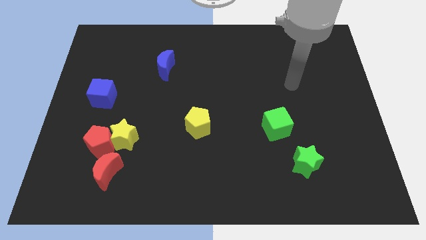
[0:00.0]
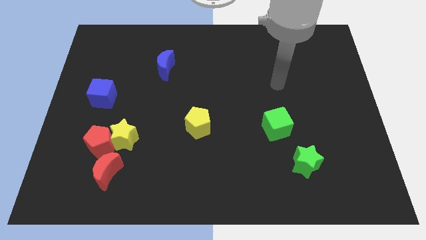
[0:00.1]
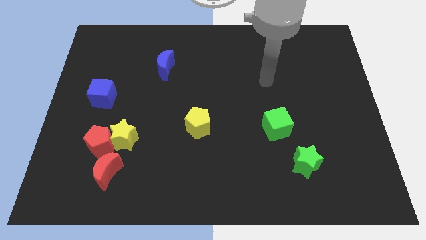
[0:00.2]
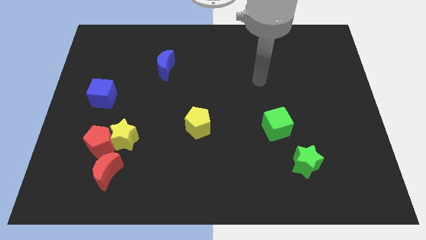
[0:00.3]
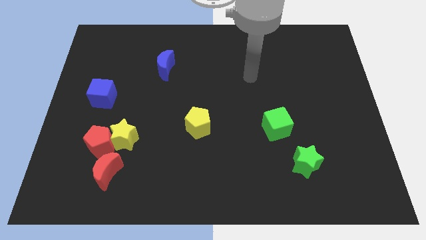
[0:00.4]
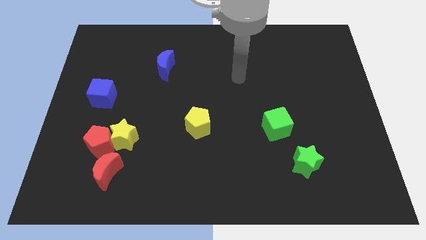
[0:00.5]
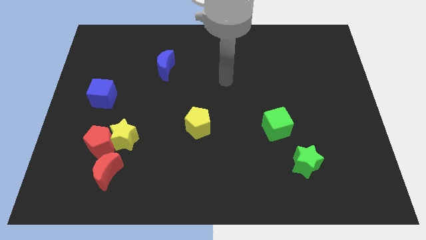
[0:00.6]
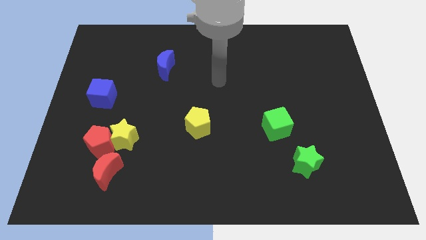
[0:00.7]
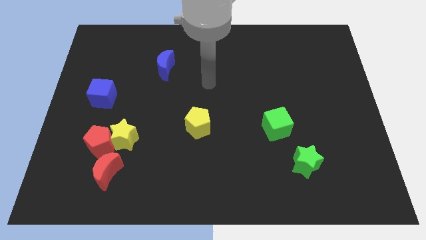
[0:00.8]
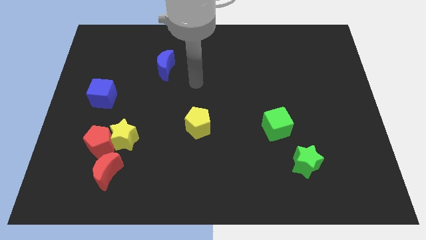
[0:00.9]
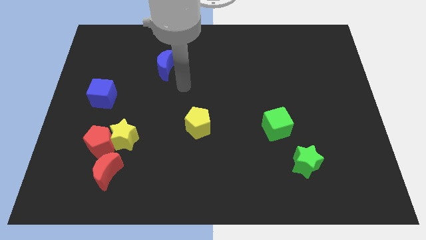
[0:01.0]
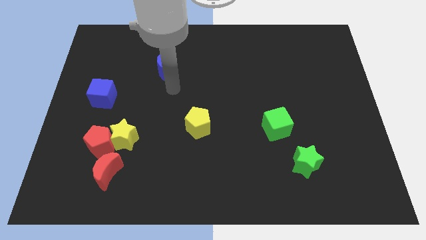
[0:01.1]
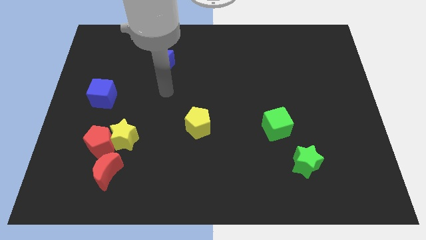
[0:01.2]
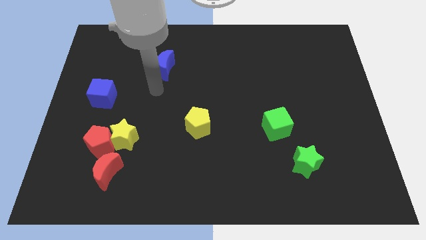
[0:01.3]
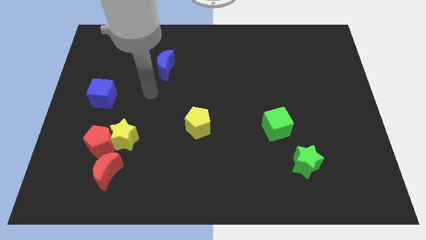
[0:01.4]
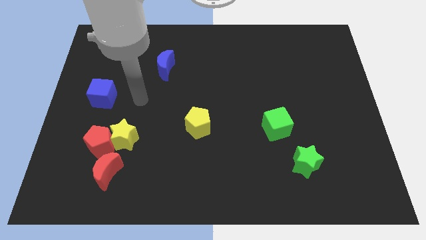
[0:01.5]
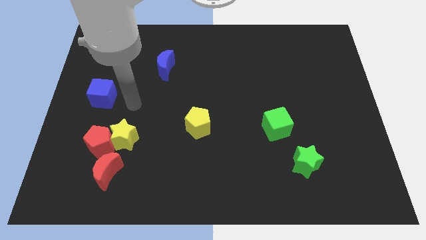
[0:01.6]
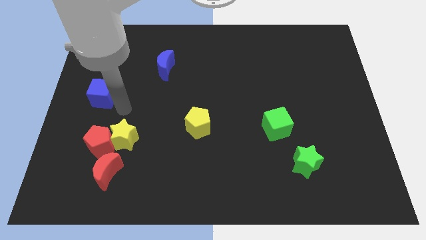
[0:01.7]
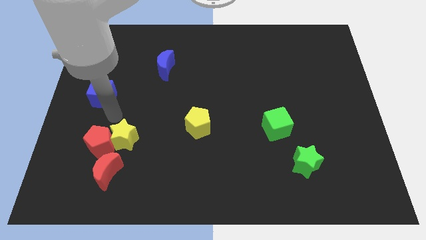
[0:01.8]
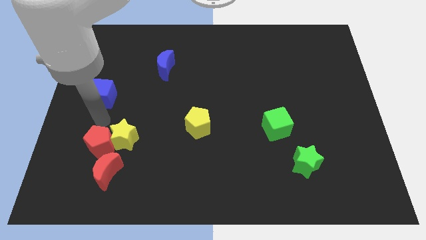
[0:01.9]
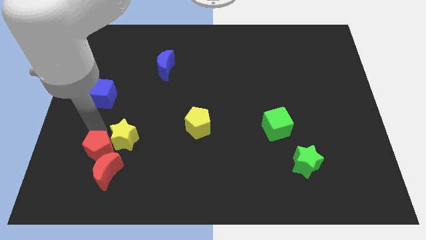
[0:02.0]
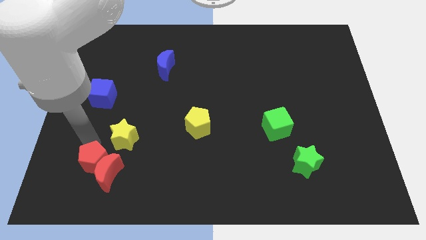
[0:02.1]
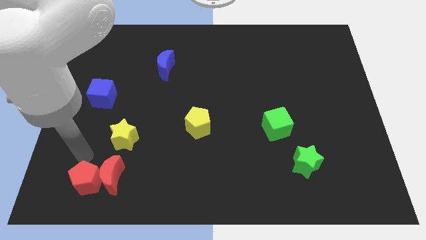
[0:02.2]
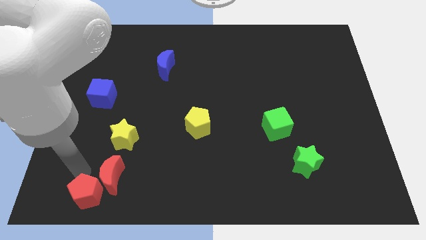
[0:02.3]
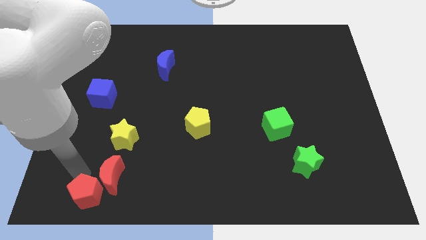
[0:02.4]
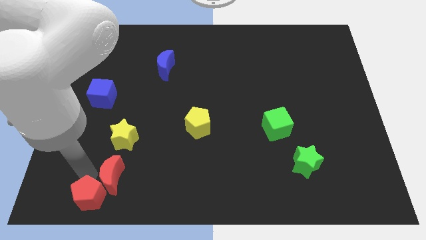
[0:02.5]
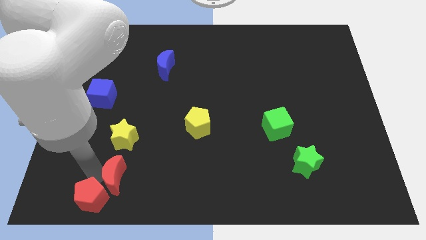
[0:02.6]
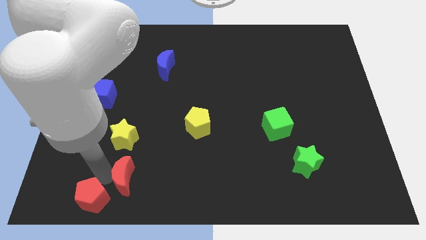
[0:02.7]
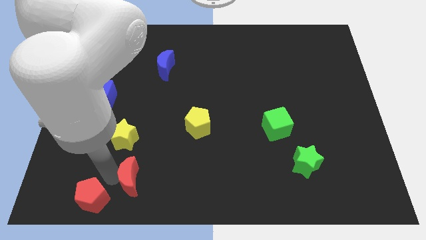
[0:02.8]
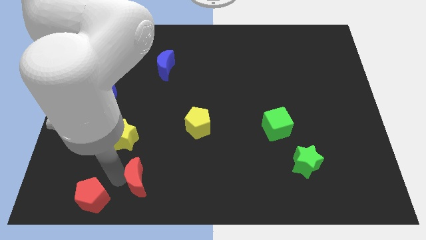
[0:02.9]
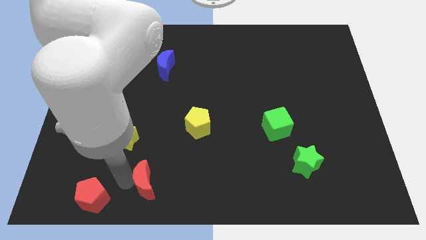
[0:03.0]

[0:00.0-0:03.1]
slide the red moon a little bit right

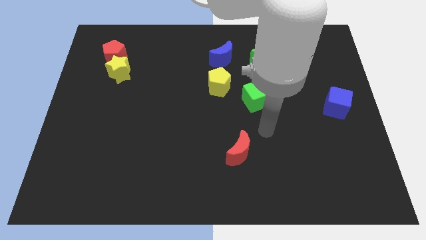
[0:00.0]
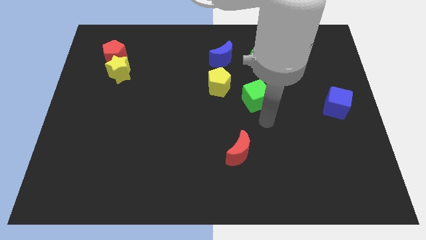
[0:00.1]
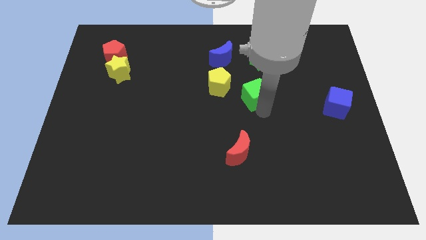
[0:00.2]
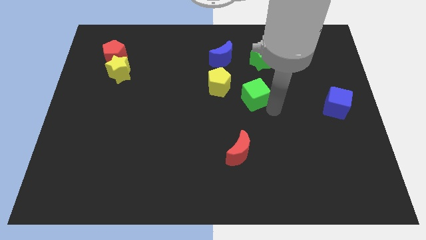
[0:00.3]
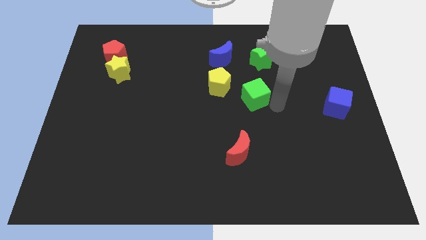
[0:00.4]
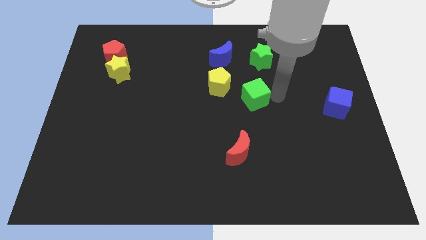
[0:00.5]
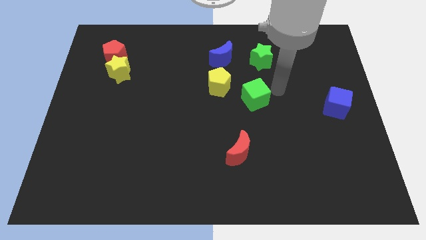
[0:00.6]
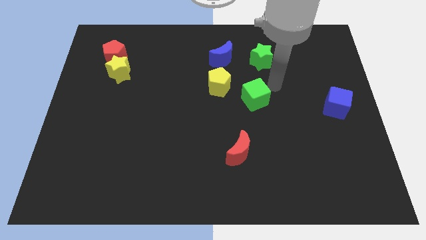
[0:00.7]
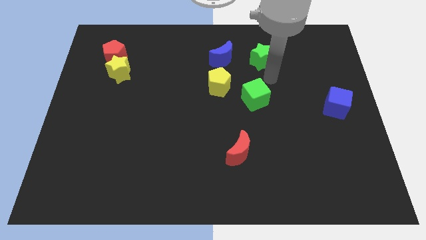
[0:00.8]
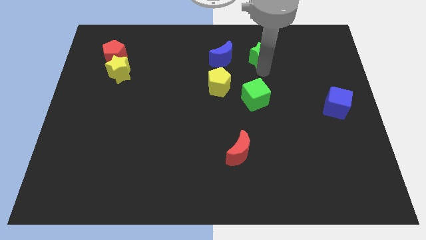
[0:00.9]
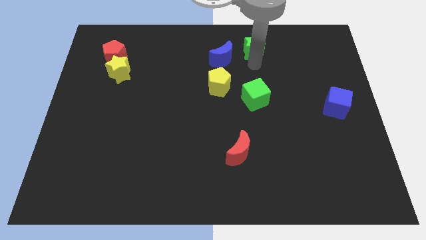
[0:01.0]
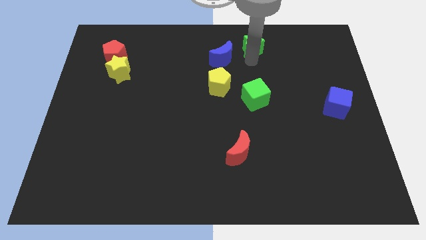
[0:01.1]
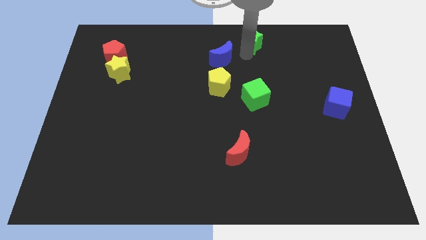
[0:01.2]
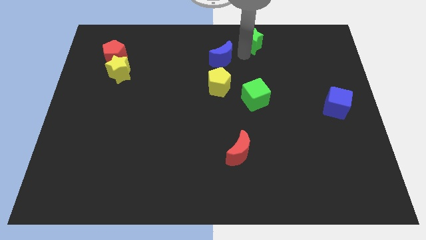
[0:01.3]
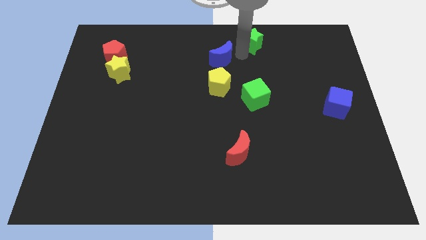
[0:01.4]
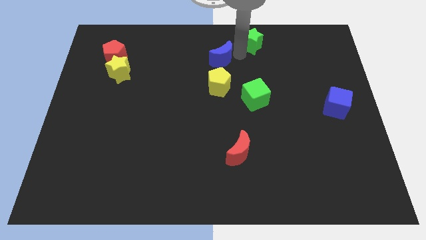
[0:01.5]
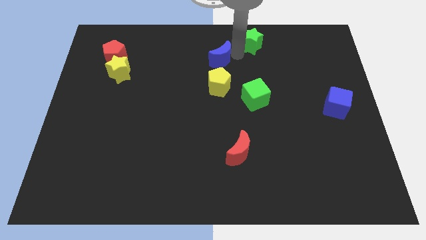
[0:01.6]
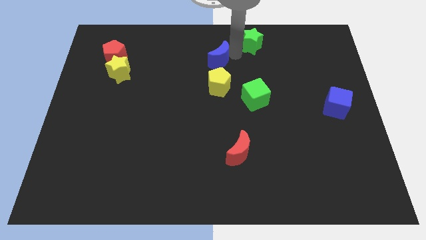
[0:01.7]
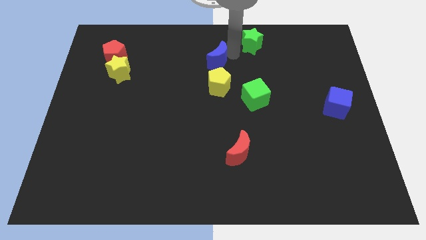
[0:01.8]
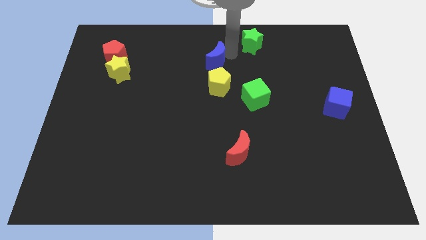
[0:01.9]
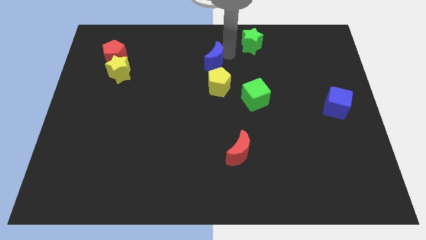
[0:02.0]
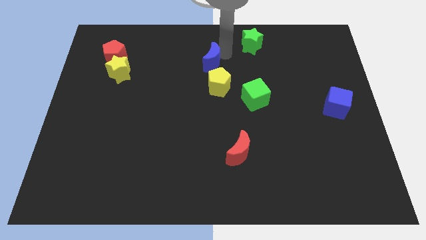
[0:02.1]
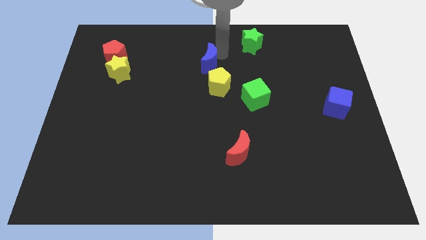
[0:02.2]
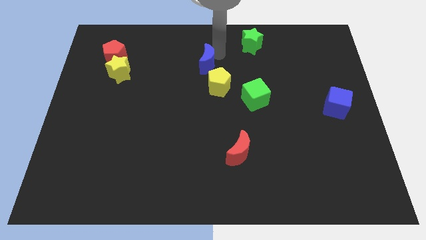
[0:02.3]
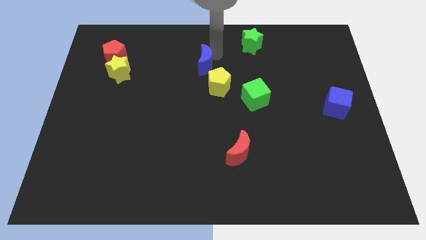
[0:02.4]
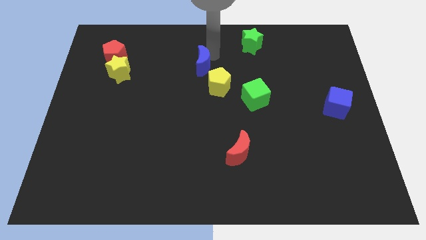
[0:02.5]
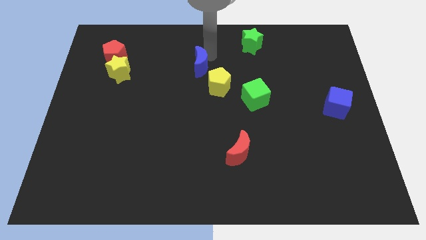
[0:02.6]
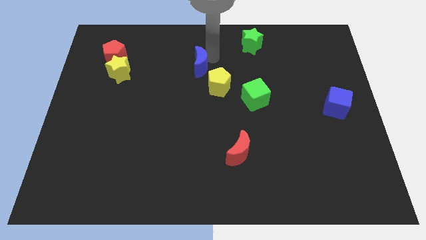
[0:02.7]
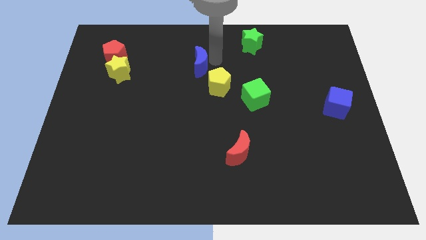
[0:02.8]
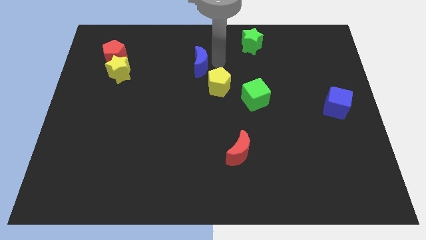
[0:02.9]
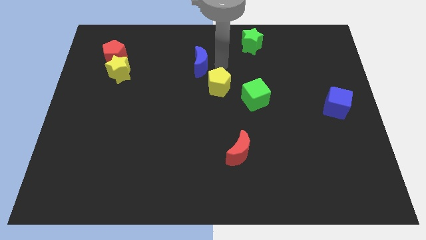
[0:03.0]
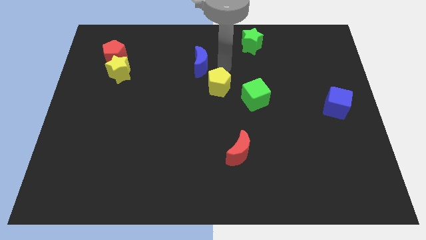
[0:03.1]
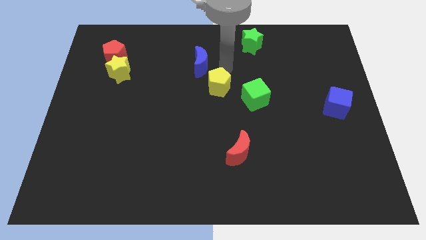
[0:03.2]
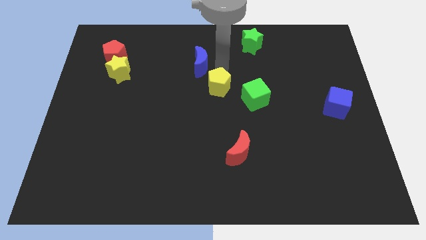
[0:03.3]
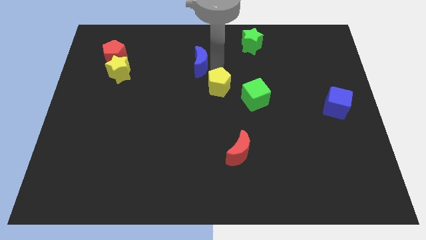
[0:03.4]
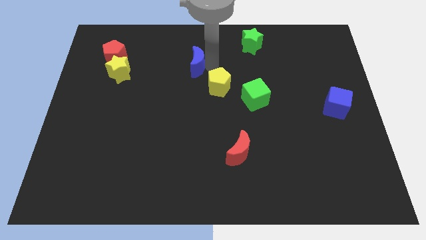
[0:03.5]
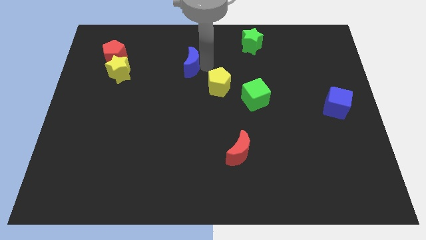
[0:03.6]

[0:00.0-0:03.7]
move the blue moon left slightly

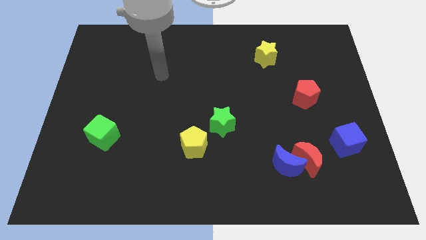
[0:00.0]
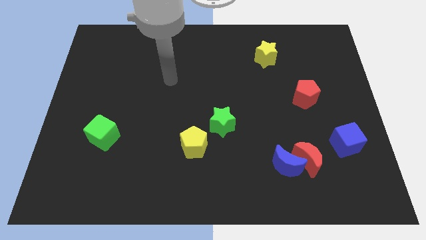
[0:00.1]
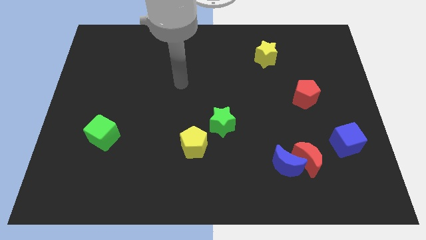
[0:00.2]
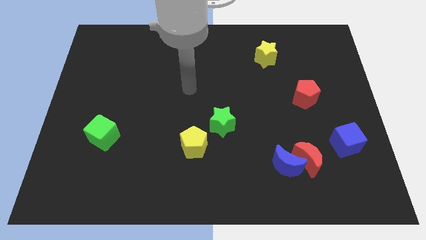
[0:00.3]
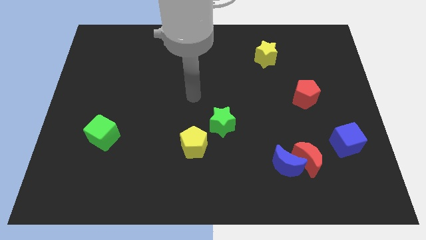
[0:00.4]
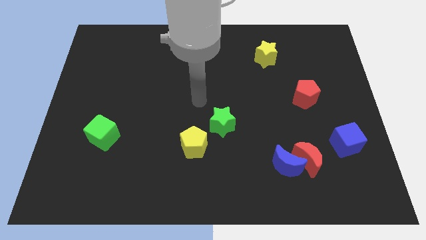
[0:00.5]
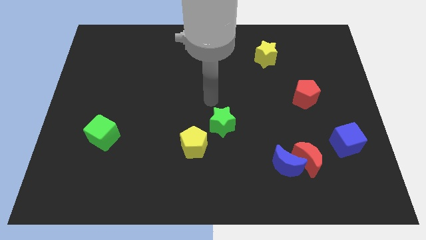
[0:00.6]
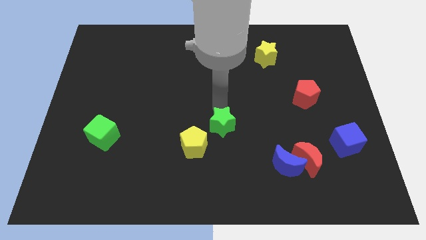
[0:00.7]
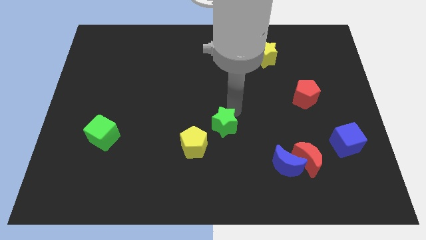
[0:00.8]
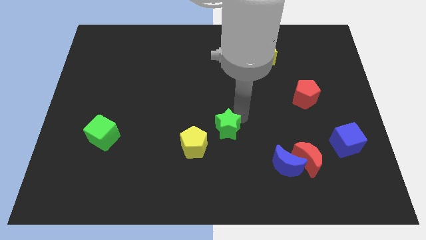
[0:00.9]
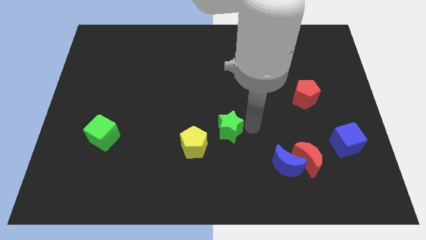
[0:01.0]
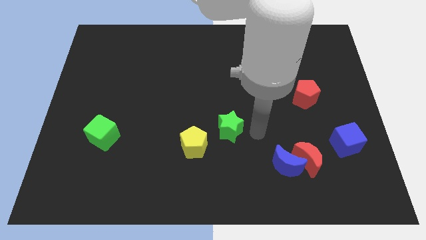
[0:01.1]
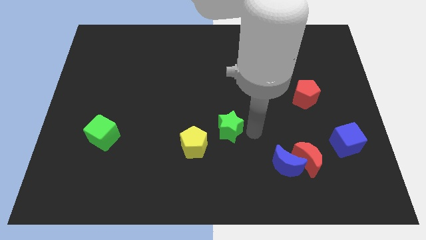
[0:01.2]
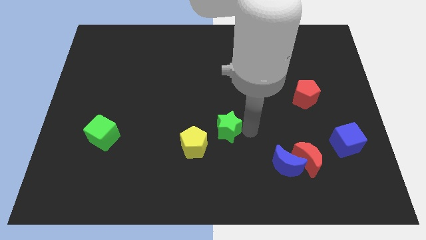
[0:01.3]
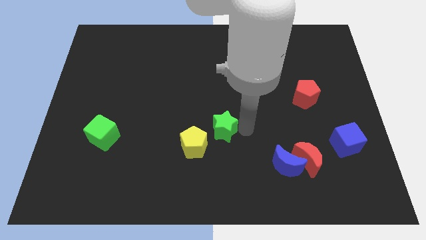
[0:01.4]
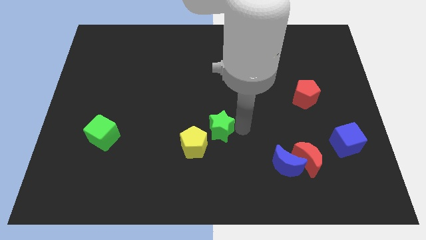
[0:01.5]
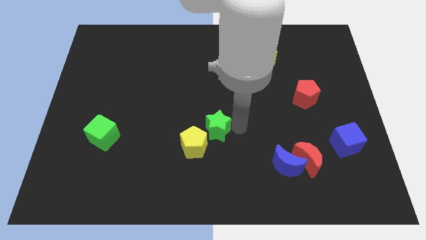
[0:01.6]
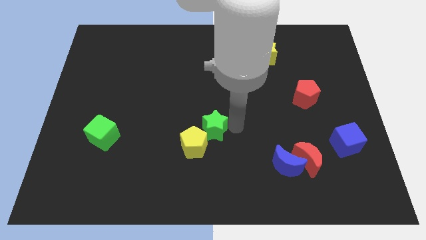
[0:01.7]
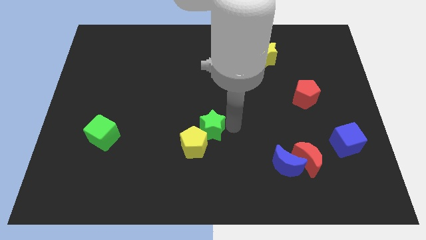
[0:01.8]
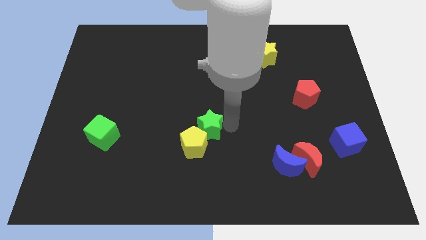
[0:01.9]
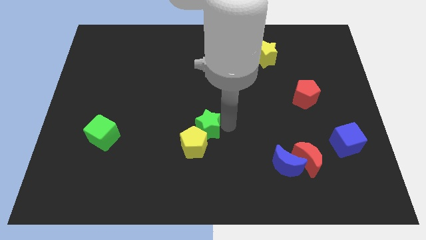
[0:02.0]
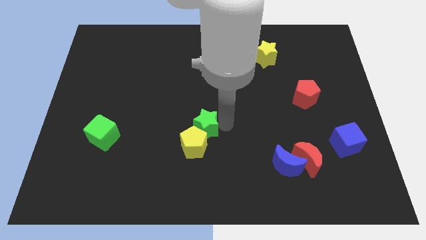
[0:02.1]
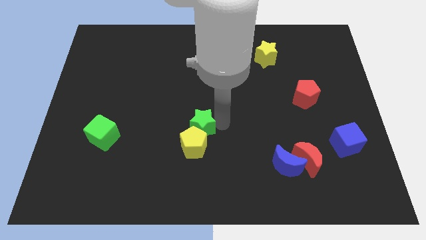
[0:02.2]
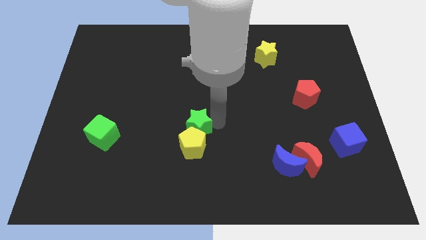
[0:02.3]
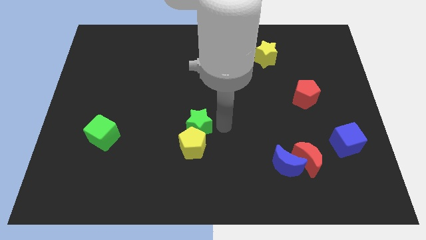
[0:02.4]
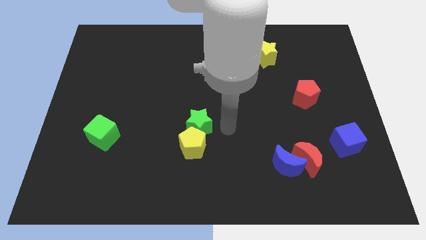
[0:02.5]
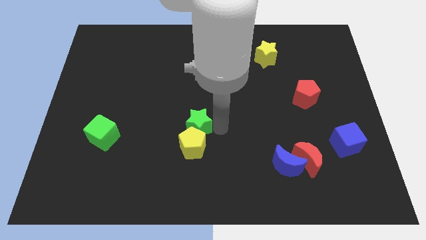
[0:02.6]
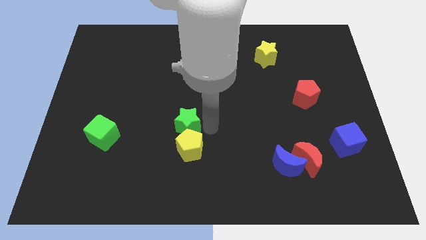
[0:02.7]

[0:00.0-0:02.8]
slide the green star somewhat left
